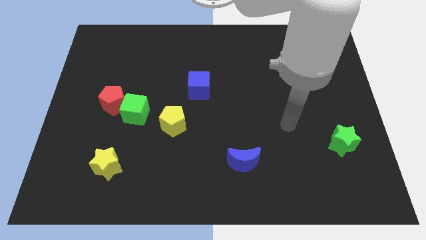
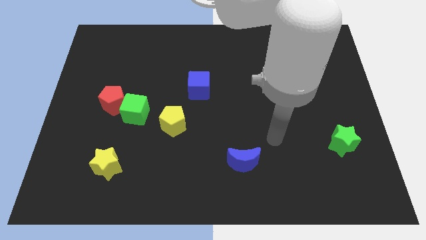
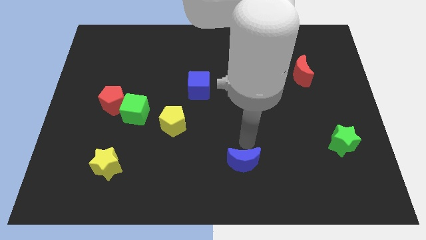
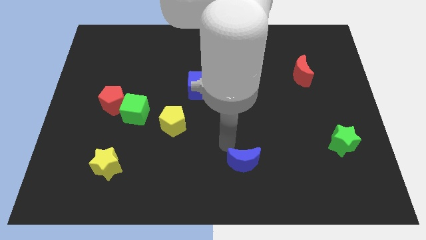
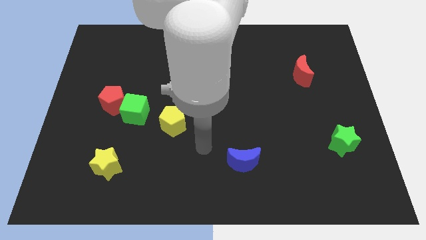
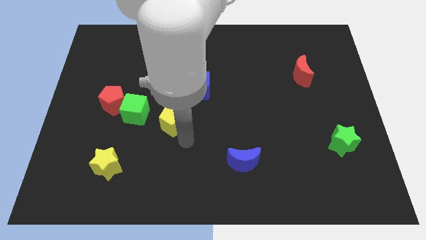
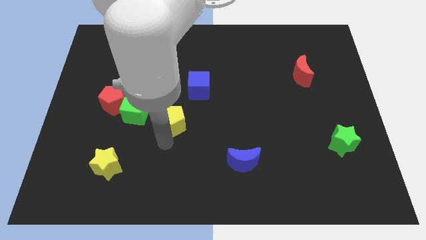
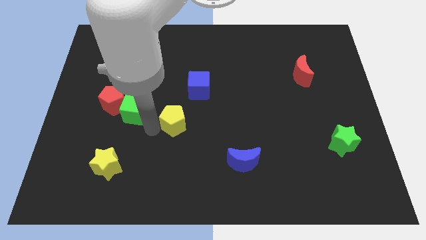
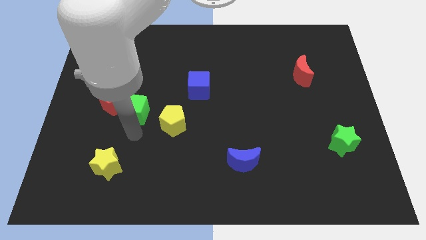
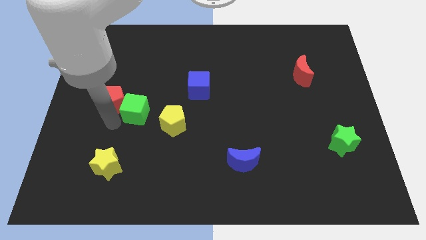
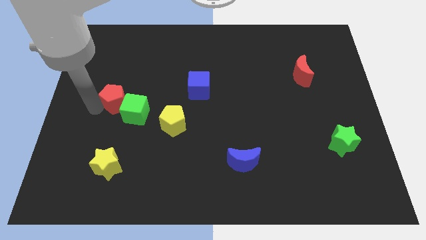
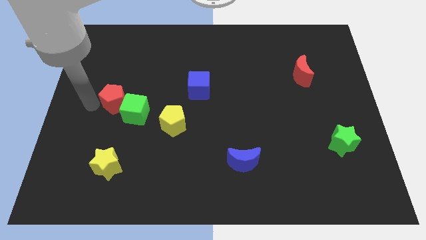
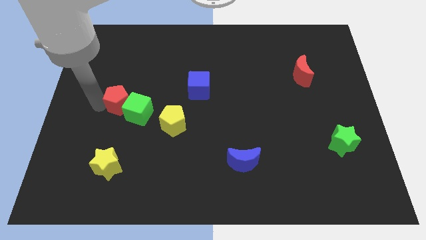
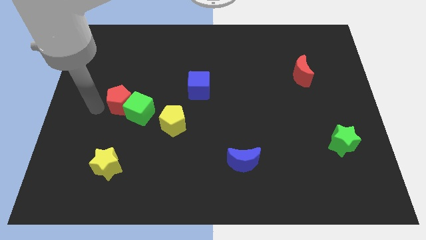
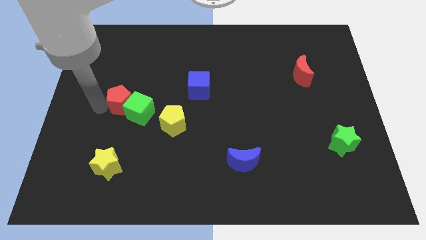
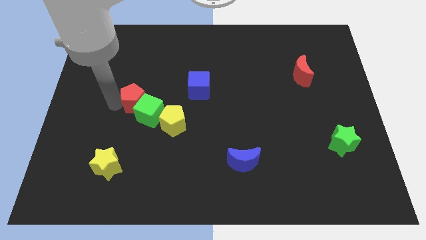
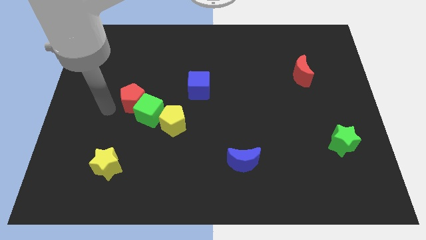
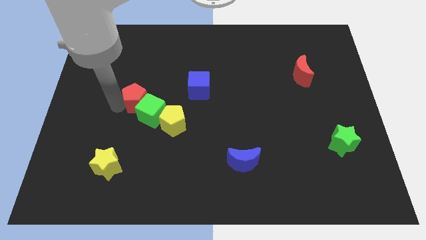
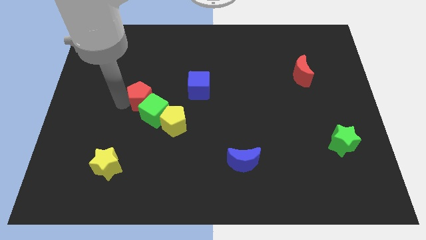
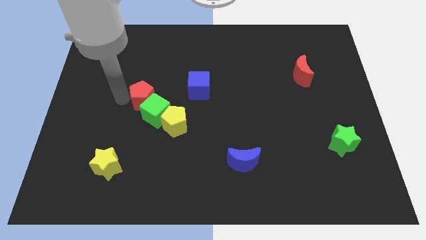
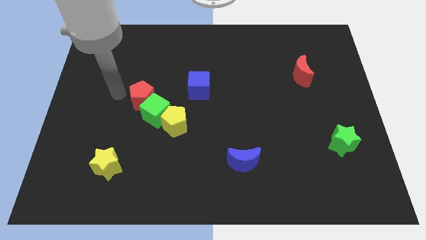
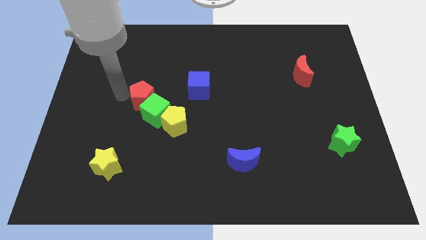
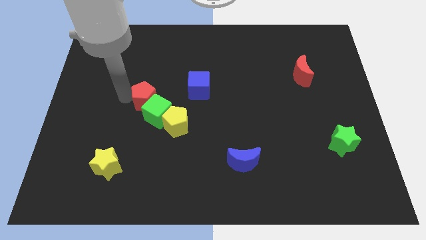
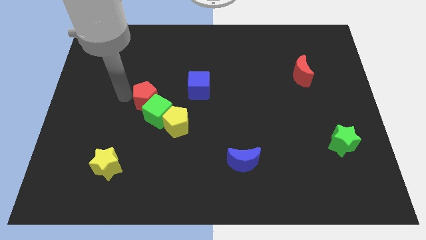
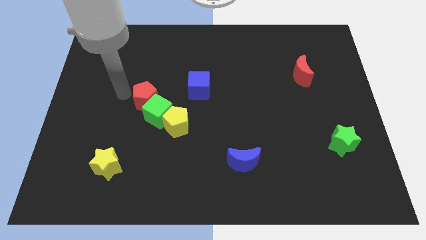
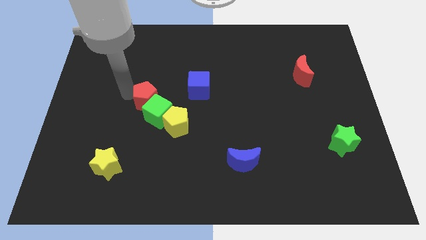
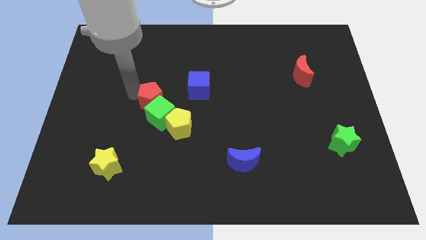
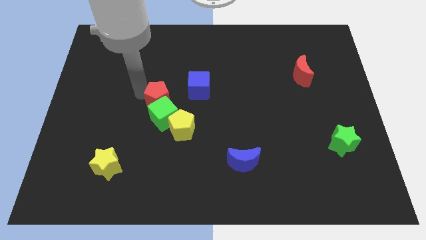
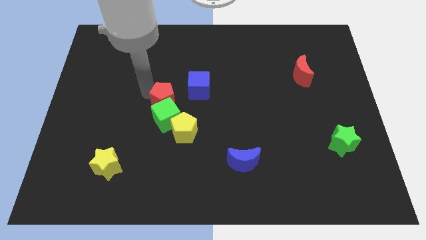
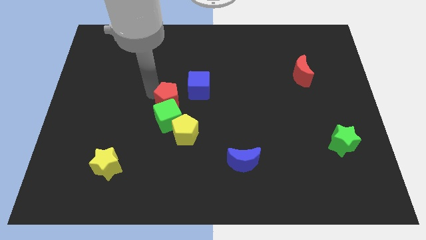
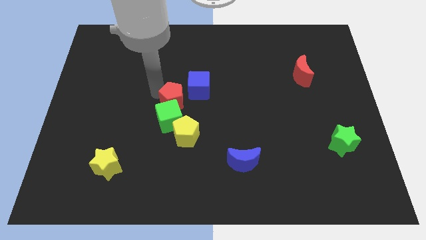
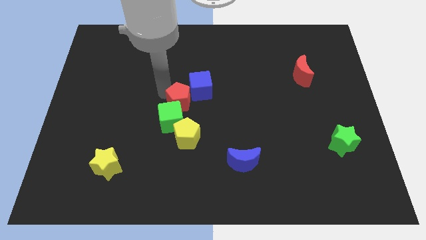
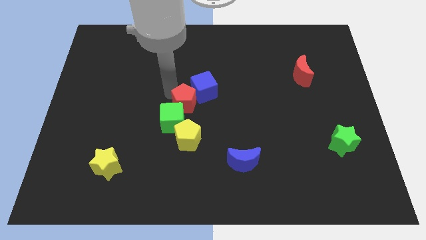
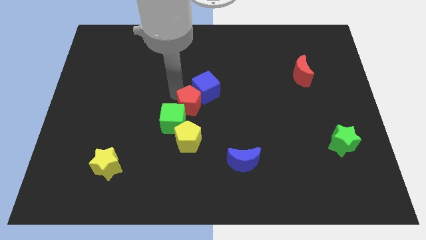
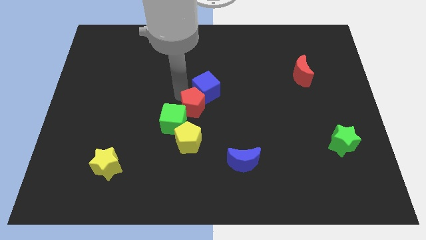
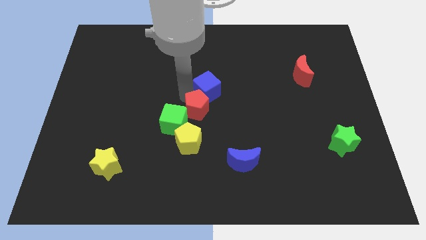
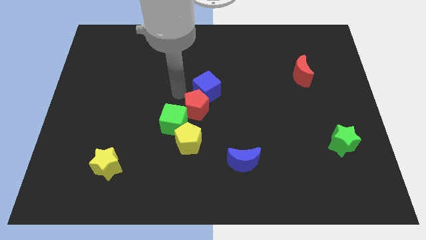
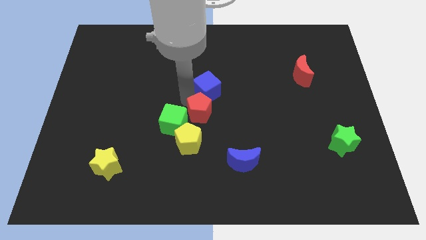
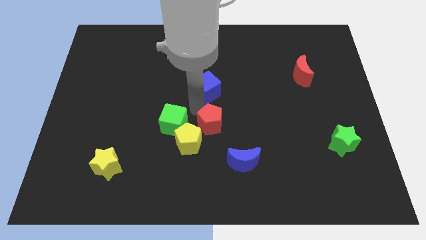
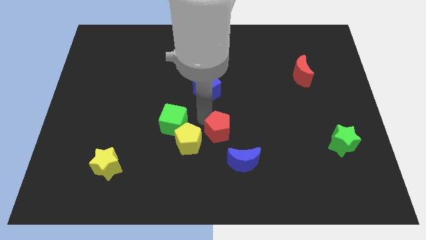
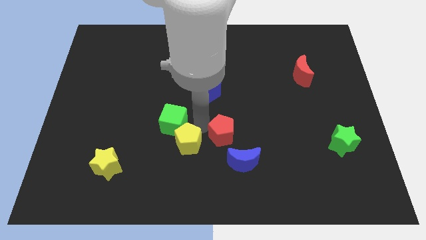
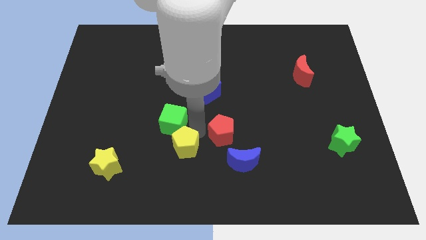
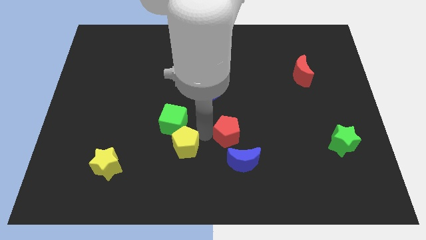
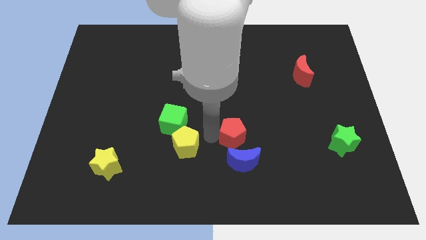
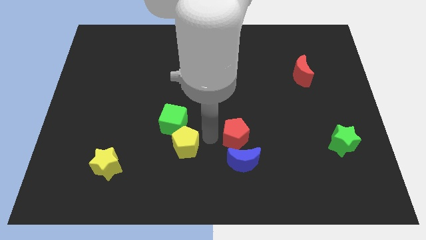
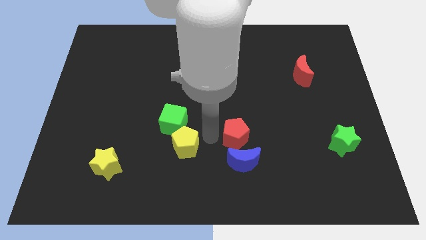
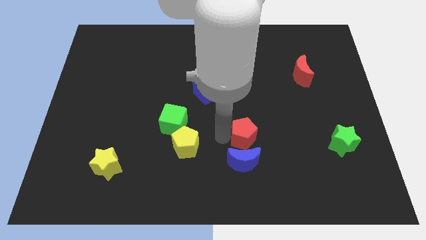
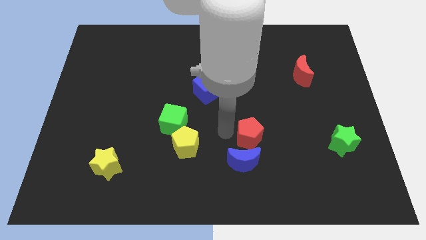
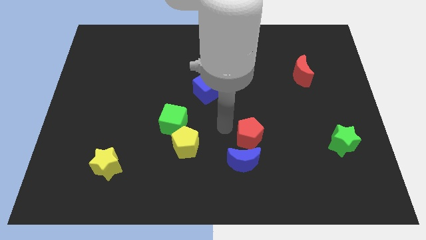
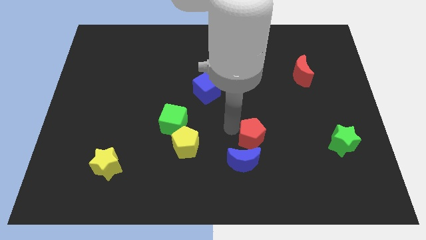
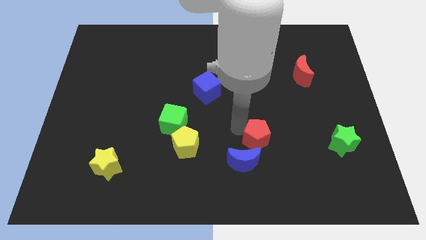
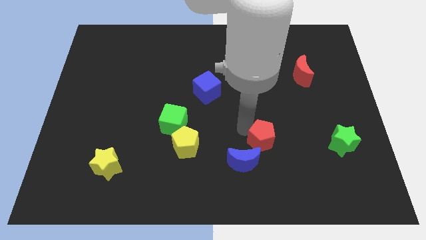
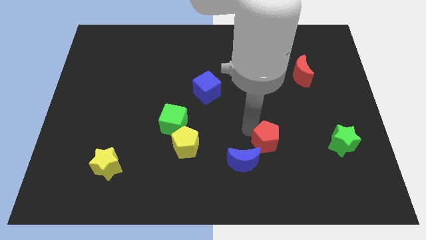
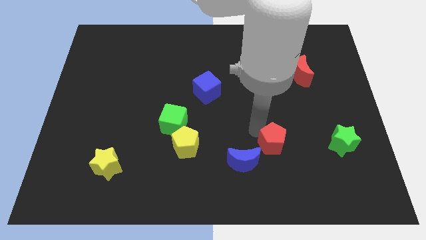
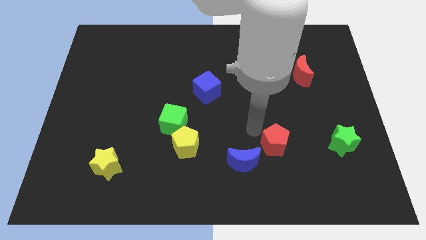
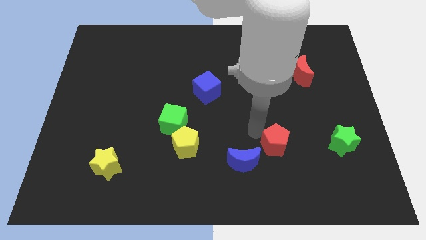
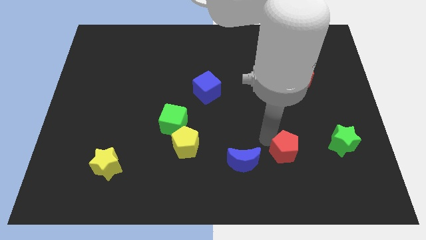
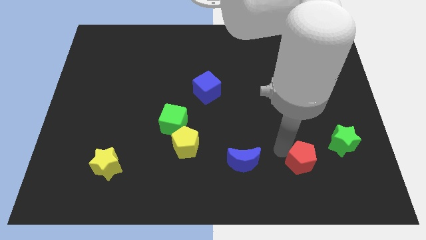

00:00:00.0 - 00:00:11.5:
put the red pentagon to the bottom left of the green star

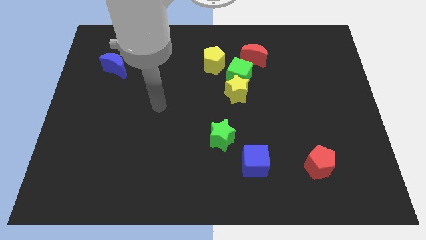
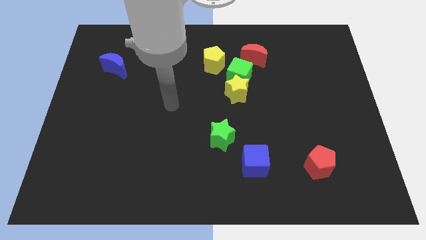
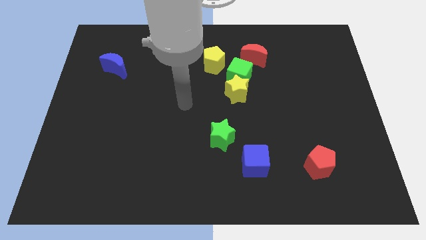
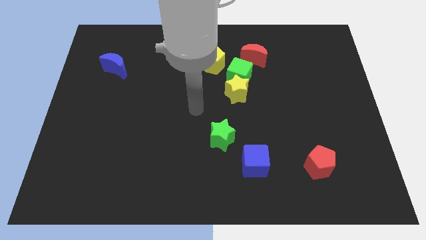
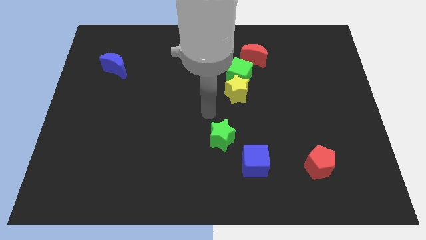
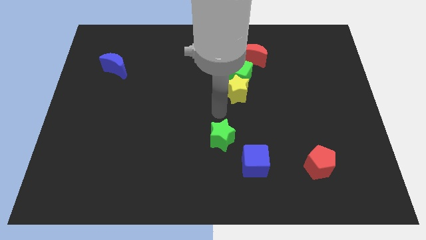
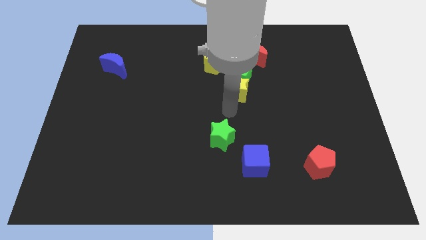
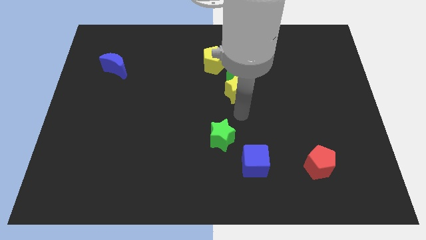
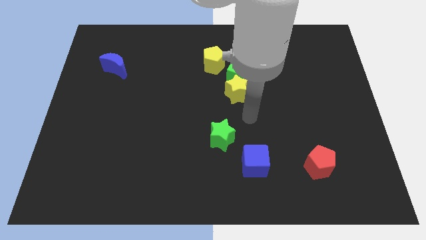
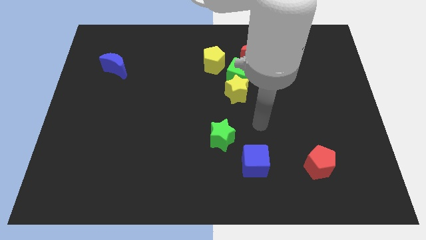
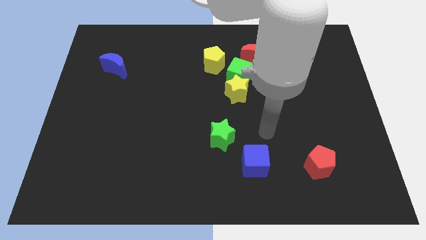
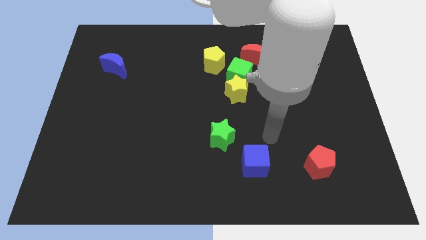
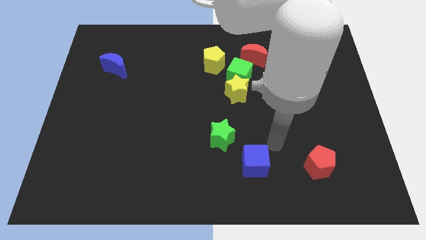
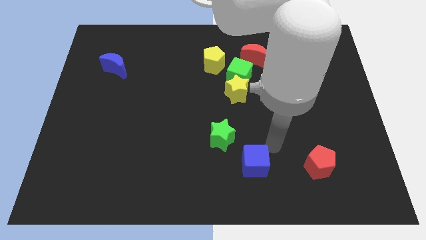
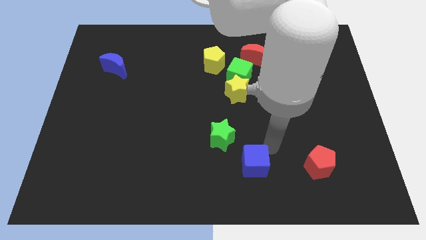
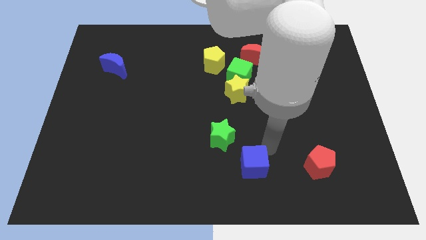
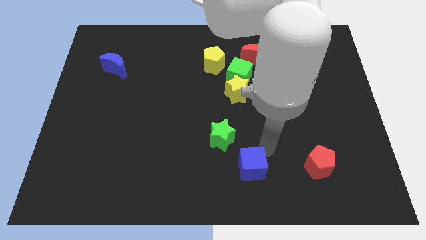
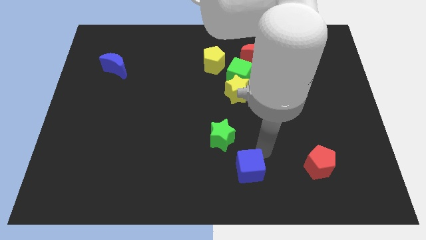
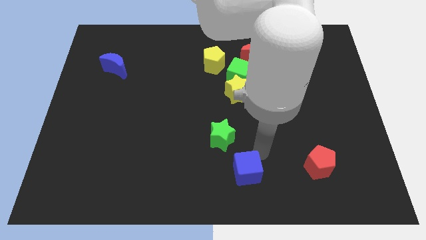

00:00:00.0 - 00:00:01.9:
move the blue cube to the bottom of the green star
